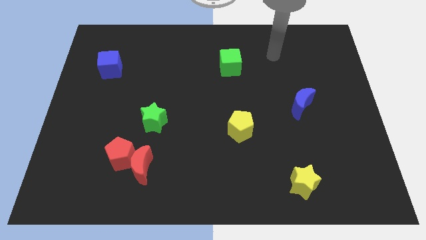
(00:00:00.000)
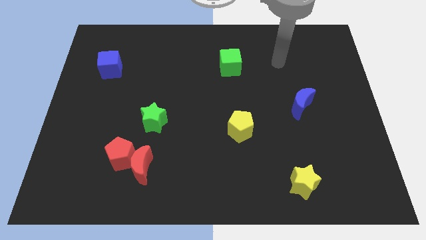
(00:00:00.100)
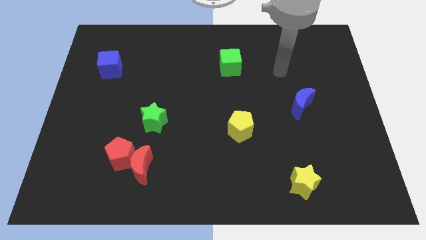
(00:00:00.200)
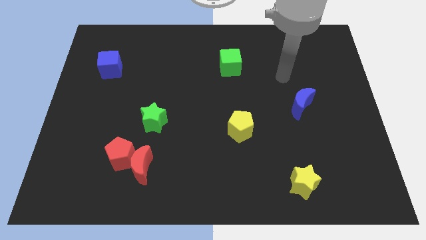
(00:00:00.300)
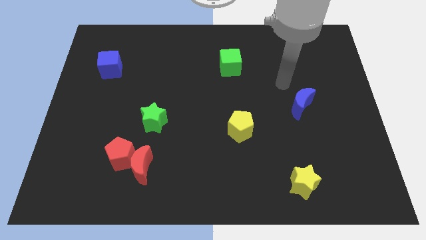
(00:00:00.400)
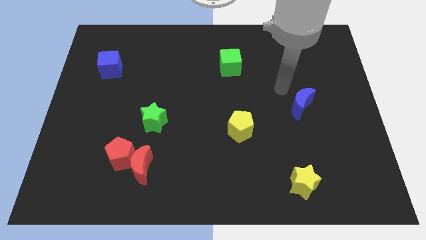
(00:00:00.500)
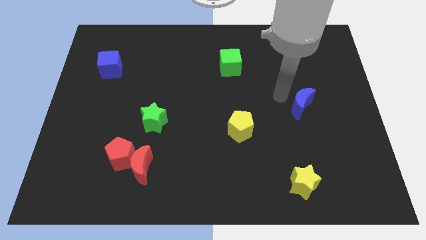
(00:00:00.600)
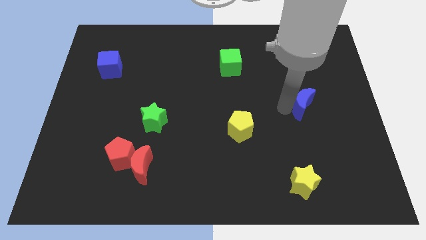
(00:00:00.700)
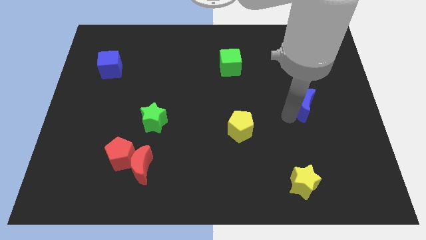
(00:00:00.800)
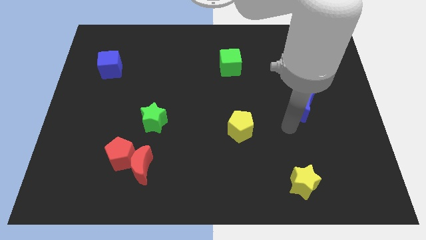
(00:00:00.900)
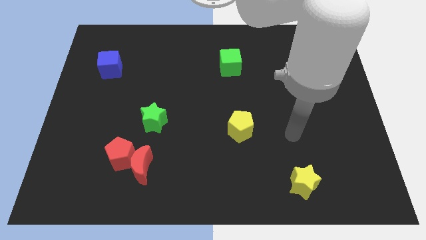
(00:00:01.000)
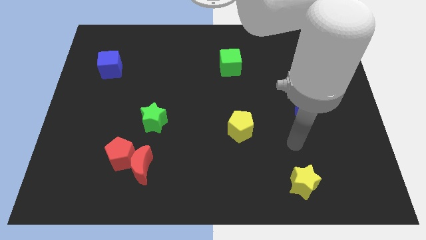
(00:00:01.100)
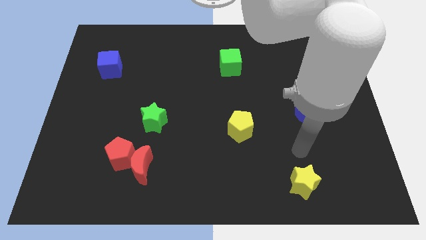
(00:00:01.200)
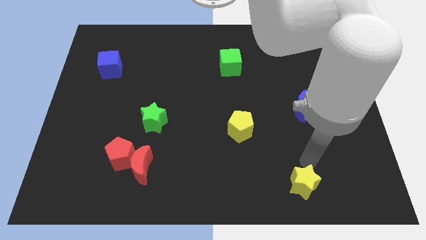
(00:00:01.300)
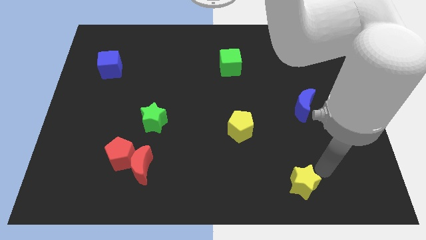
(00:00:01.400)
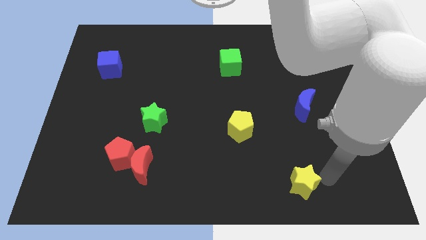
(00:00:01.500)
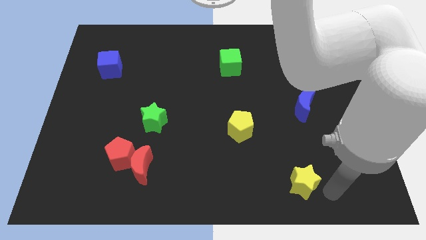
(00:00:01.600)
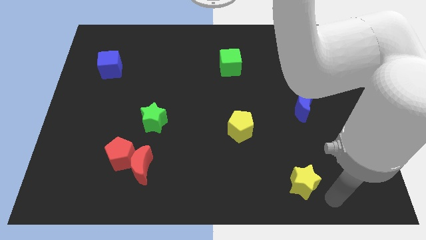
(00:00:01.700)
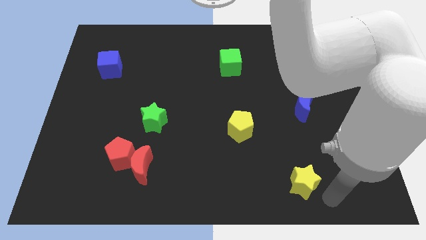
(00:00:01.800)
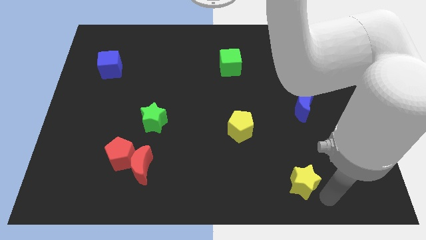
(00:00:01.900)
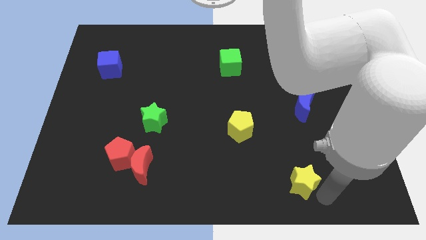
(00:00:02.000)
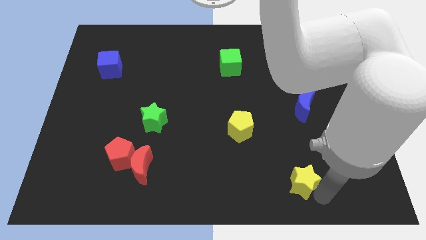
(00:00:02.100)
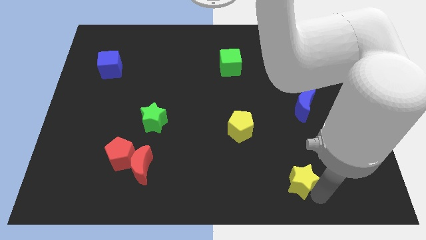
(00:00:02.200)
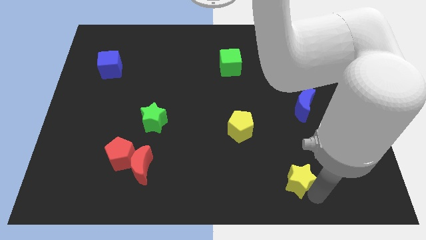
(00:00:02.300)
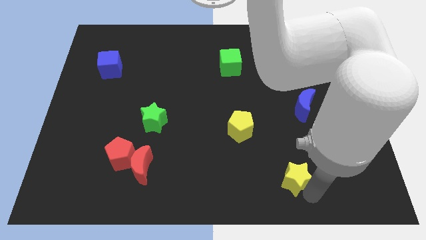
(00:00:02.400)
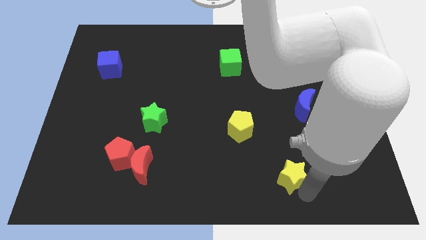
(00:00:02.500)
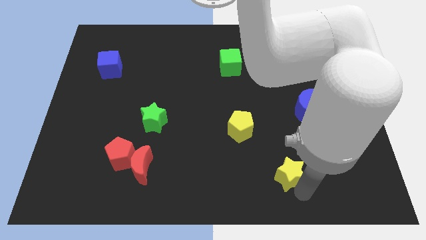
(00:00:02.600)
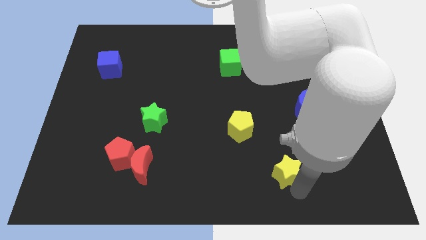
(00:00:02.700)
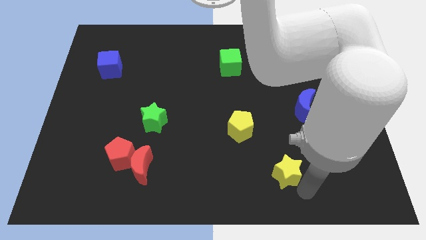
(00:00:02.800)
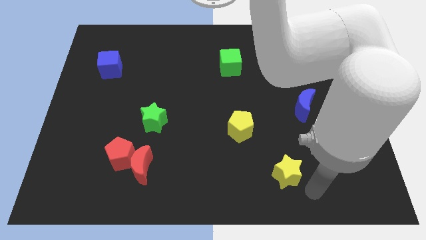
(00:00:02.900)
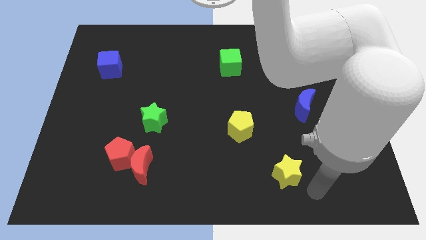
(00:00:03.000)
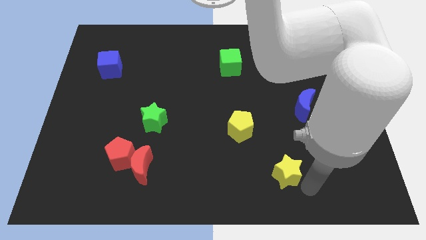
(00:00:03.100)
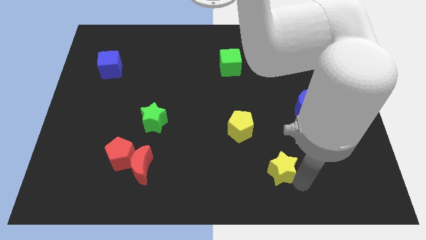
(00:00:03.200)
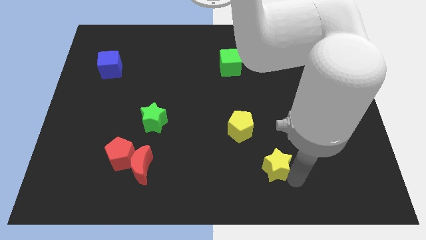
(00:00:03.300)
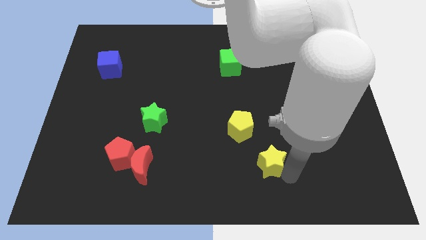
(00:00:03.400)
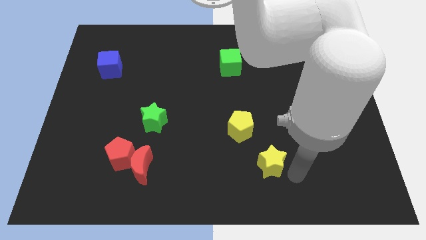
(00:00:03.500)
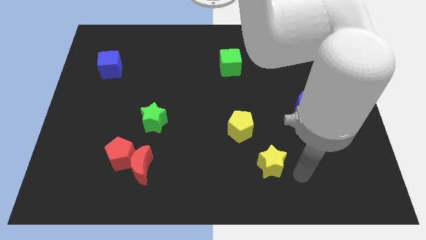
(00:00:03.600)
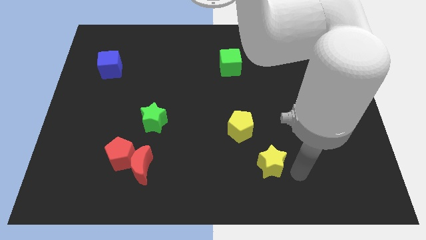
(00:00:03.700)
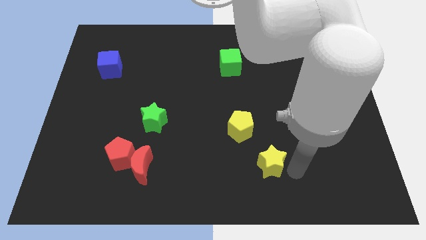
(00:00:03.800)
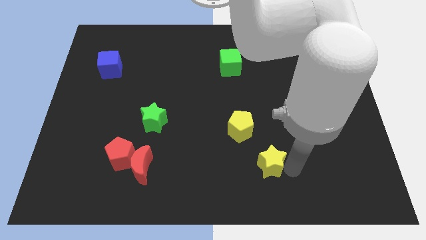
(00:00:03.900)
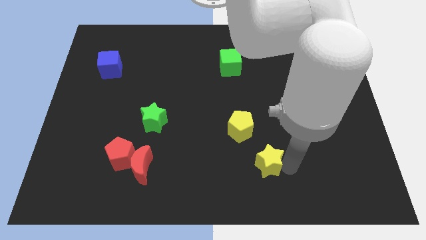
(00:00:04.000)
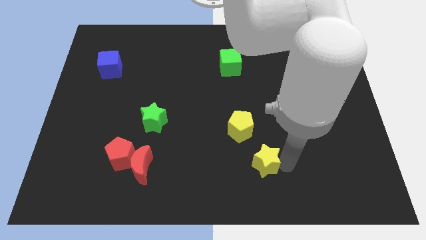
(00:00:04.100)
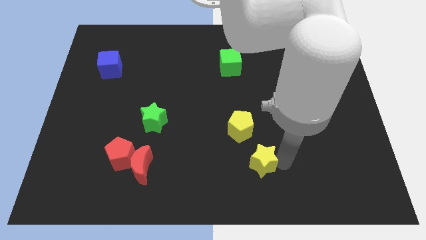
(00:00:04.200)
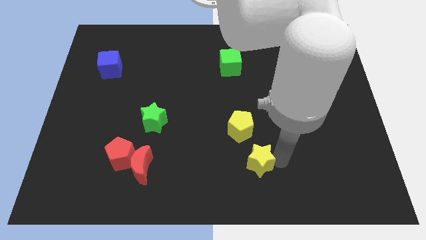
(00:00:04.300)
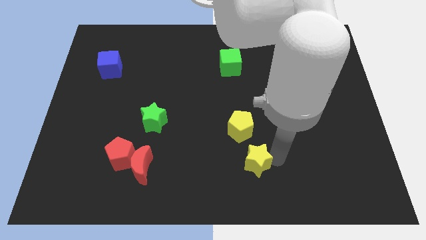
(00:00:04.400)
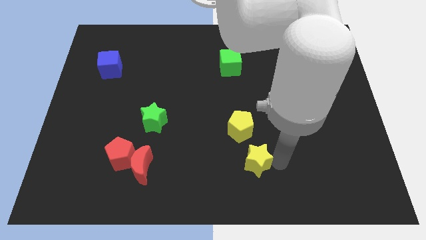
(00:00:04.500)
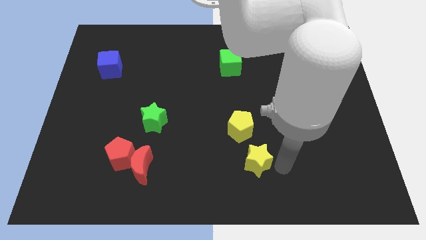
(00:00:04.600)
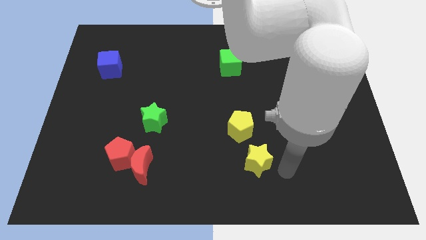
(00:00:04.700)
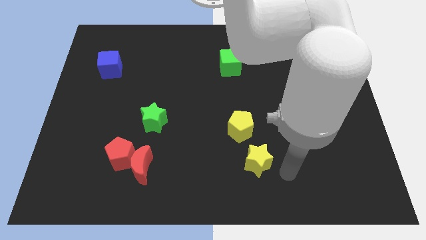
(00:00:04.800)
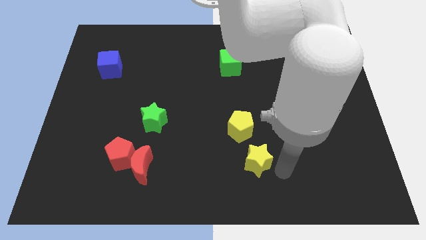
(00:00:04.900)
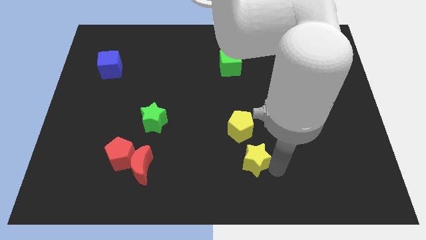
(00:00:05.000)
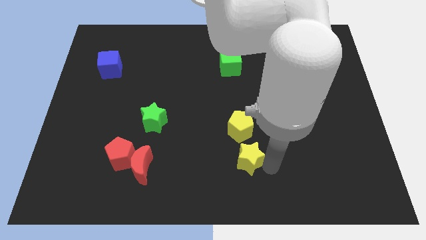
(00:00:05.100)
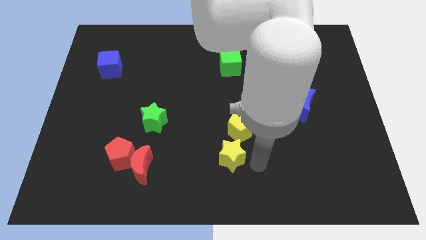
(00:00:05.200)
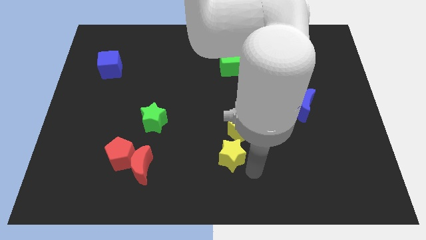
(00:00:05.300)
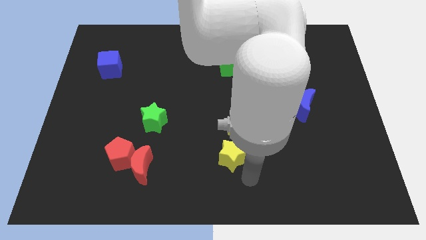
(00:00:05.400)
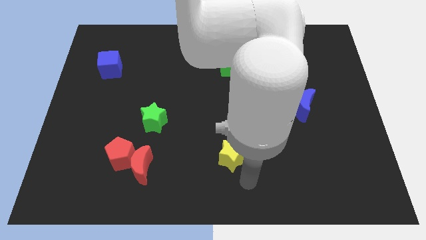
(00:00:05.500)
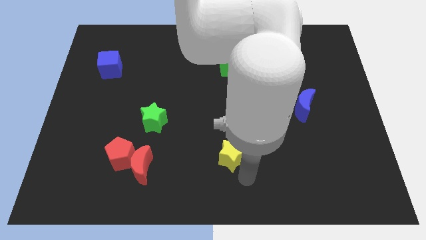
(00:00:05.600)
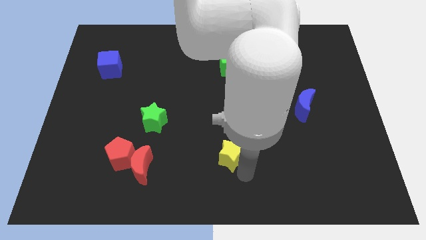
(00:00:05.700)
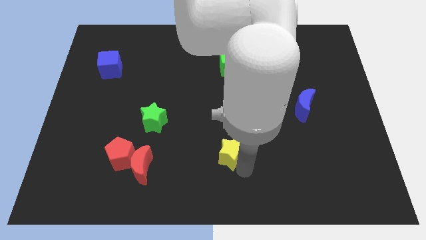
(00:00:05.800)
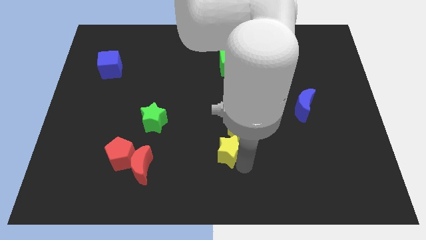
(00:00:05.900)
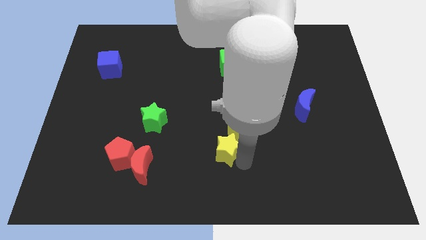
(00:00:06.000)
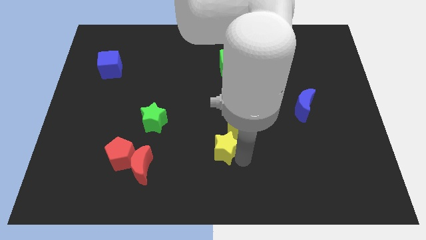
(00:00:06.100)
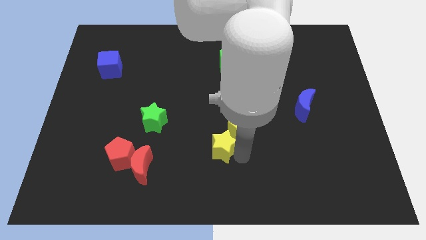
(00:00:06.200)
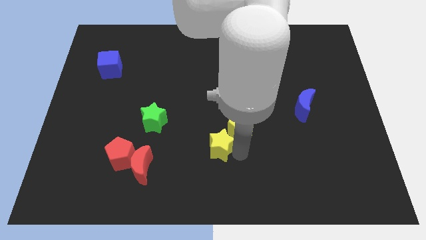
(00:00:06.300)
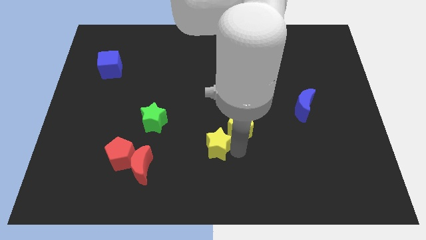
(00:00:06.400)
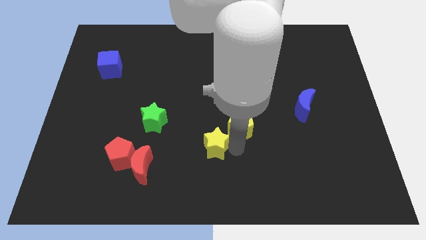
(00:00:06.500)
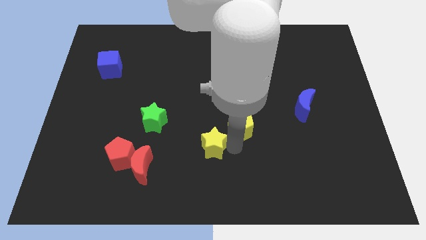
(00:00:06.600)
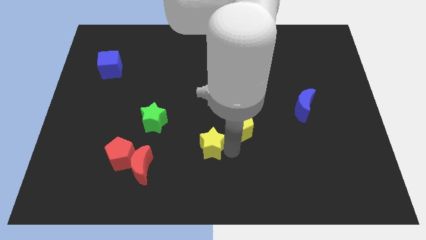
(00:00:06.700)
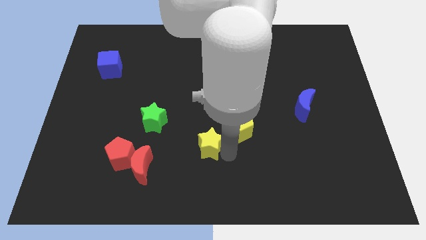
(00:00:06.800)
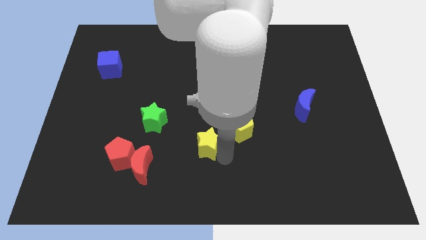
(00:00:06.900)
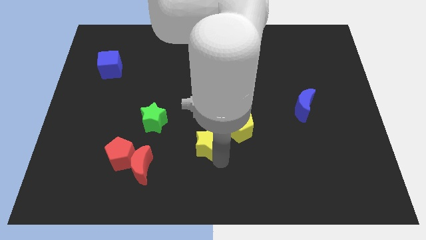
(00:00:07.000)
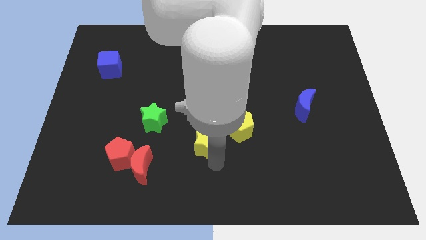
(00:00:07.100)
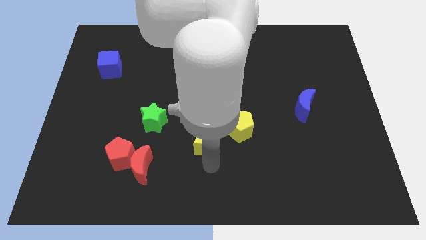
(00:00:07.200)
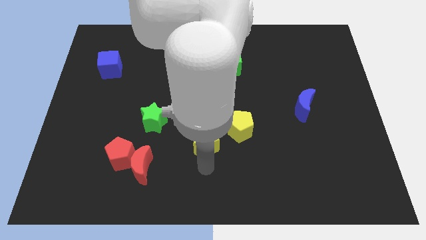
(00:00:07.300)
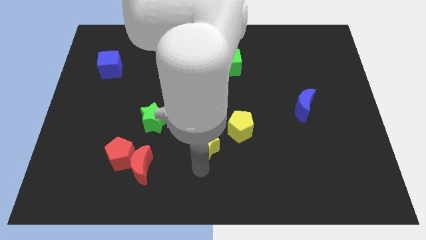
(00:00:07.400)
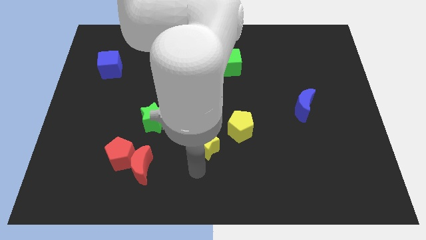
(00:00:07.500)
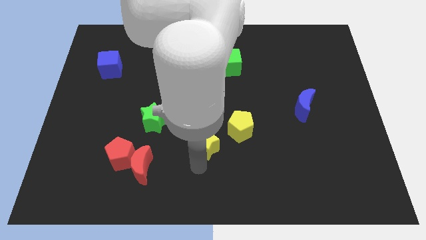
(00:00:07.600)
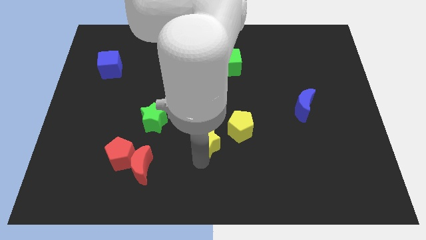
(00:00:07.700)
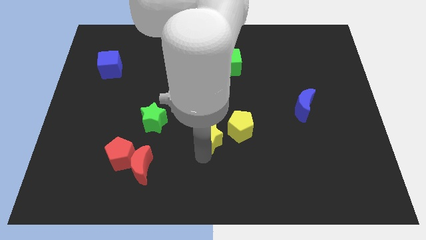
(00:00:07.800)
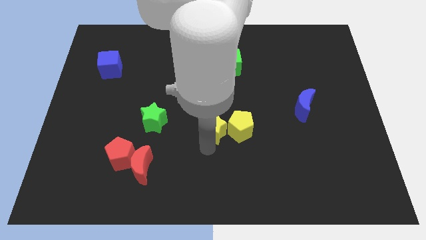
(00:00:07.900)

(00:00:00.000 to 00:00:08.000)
push the yellow star to the top left of the yellow pentagon
